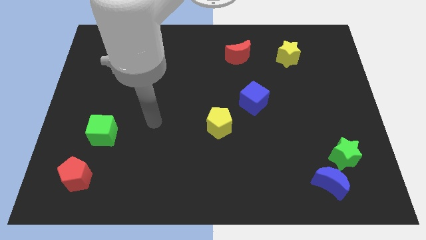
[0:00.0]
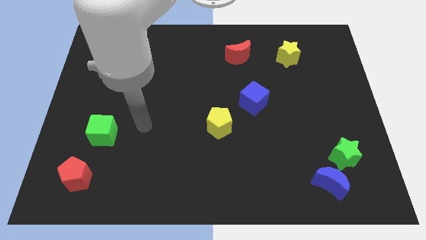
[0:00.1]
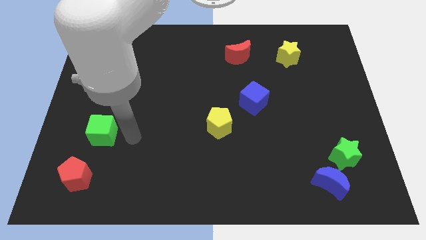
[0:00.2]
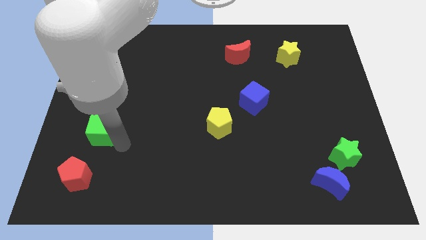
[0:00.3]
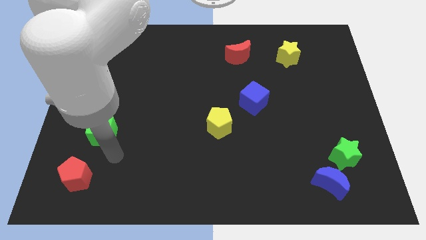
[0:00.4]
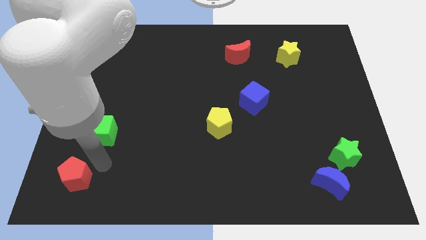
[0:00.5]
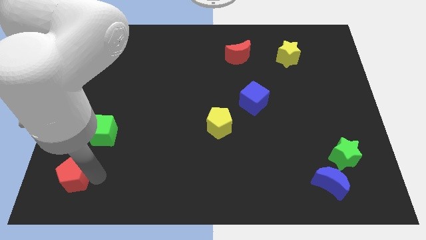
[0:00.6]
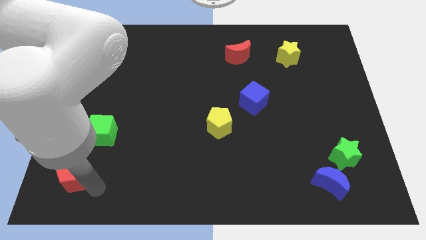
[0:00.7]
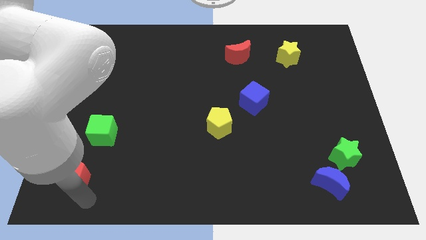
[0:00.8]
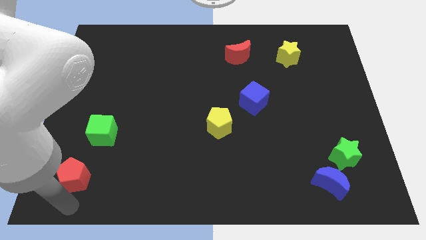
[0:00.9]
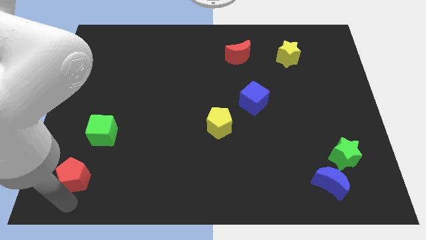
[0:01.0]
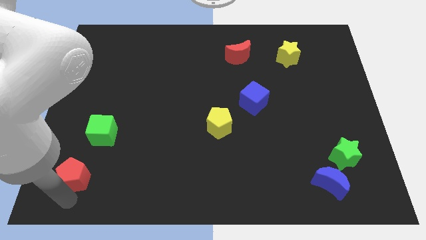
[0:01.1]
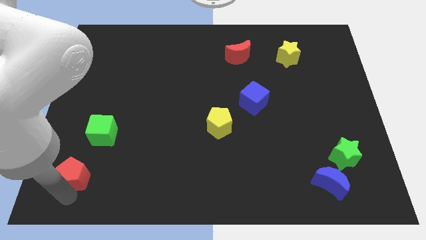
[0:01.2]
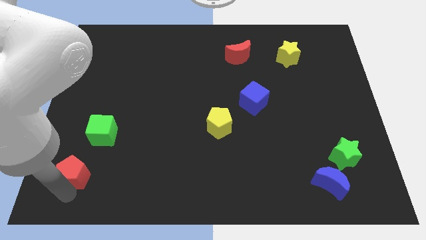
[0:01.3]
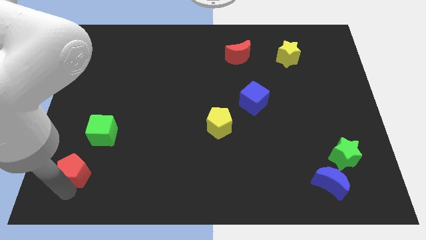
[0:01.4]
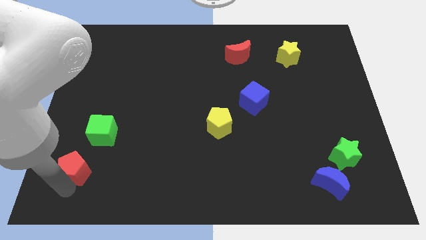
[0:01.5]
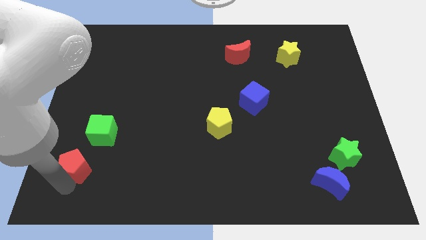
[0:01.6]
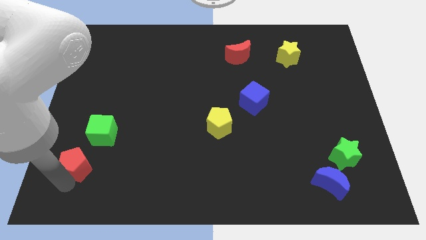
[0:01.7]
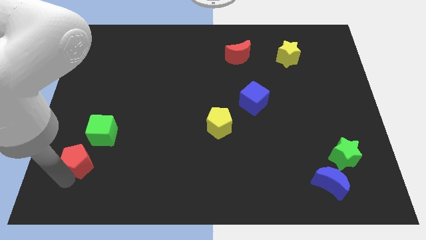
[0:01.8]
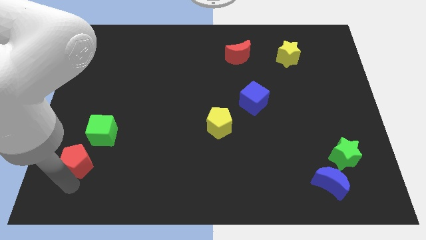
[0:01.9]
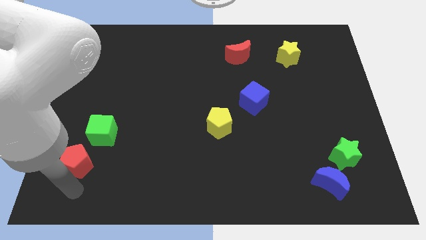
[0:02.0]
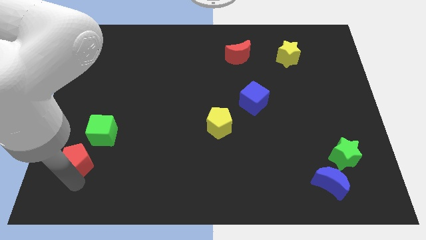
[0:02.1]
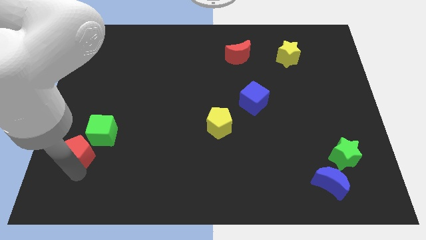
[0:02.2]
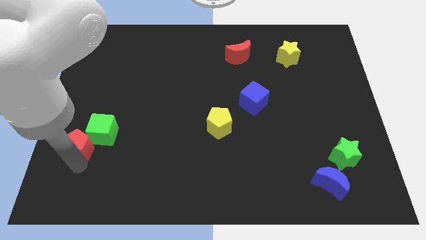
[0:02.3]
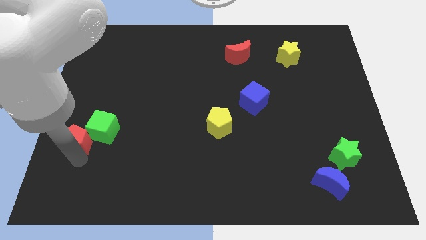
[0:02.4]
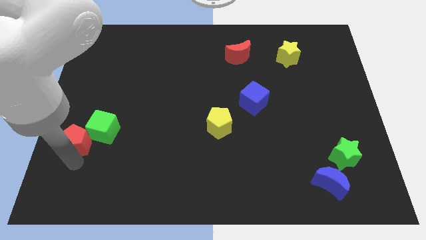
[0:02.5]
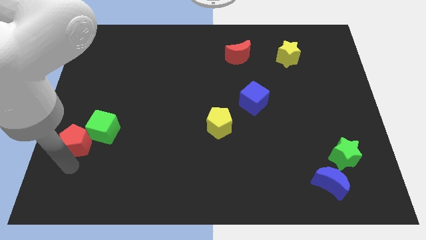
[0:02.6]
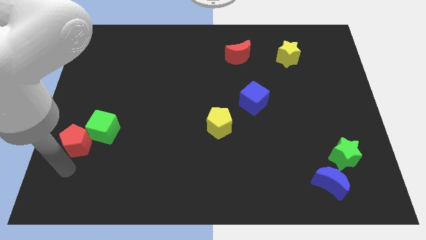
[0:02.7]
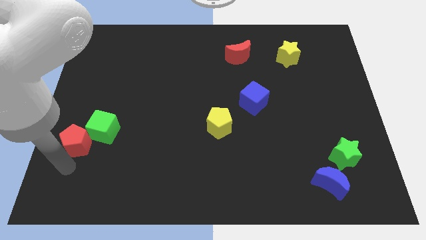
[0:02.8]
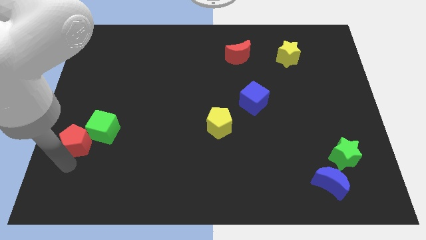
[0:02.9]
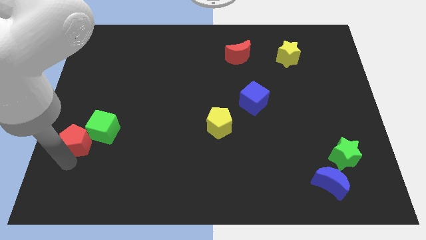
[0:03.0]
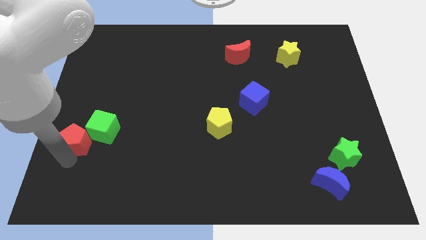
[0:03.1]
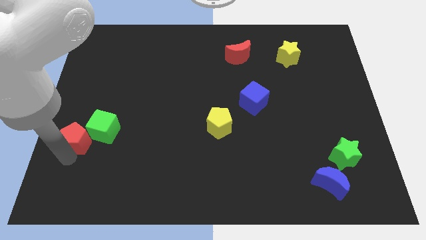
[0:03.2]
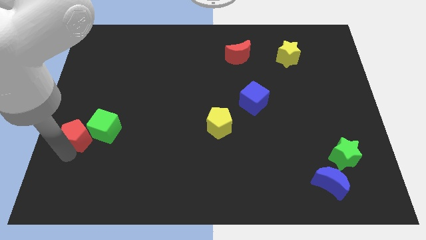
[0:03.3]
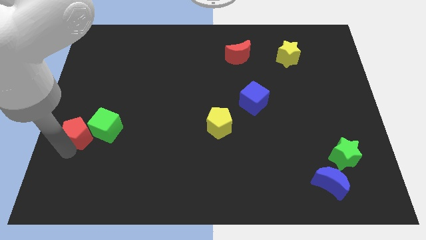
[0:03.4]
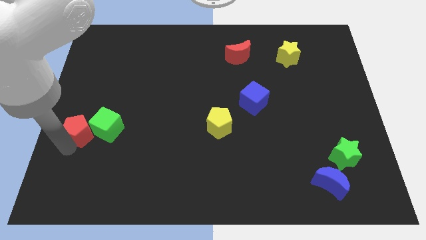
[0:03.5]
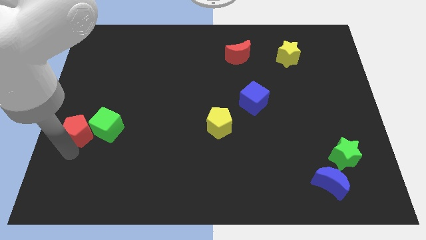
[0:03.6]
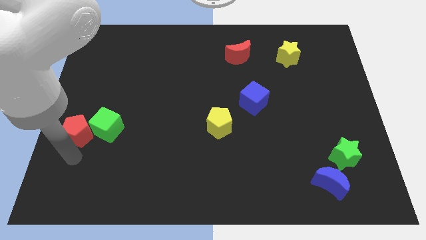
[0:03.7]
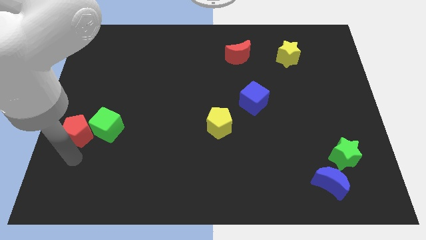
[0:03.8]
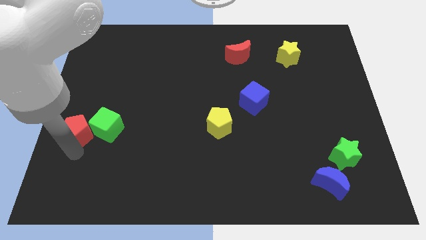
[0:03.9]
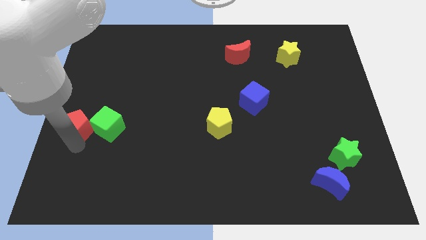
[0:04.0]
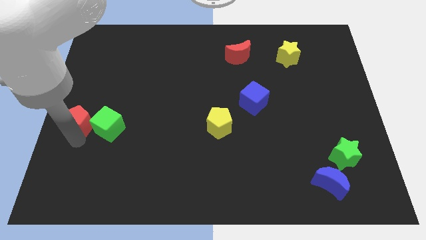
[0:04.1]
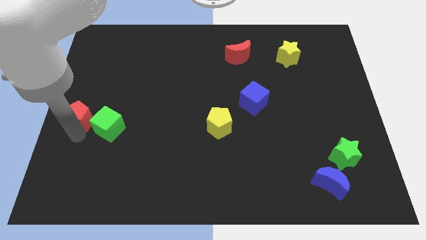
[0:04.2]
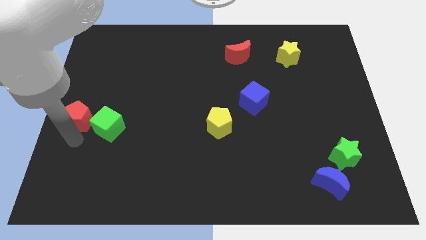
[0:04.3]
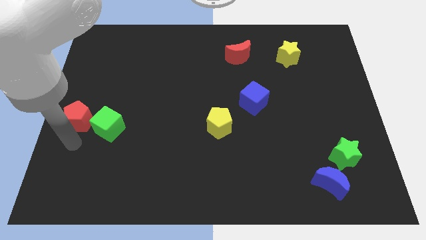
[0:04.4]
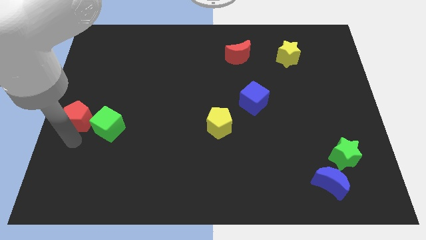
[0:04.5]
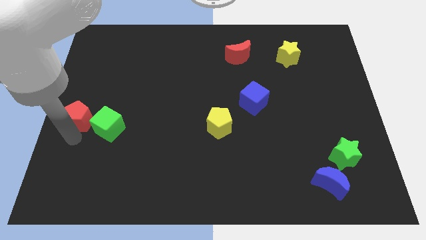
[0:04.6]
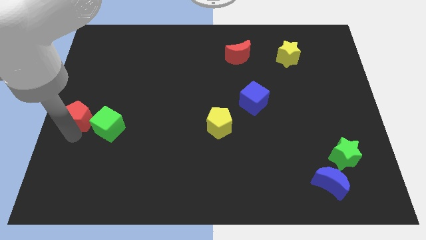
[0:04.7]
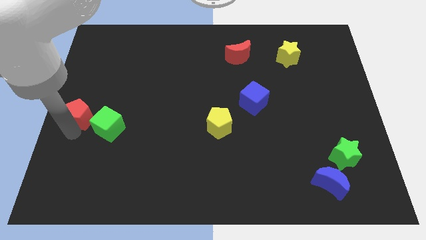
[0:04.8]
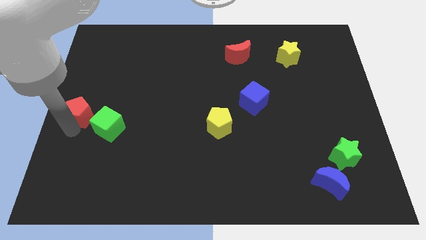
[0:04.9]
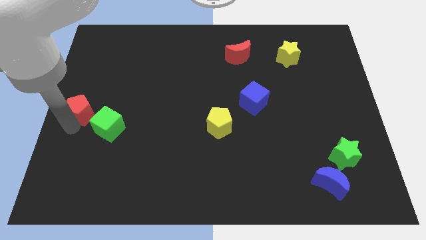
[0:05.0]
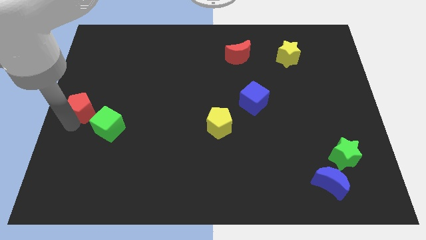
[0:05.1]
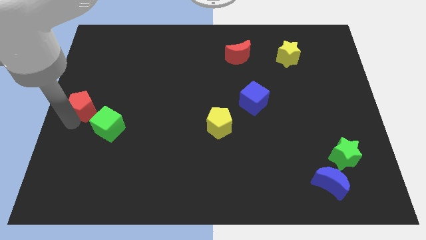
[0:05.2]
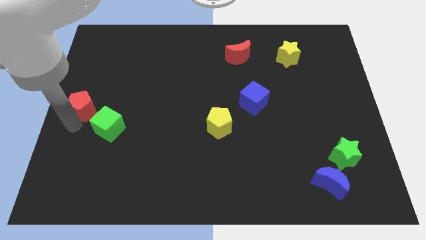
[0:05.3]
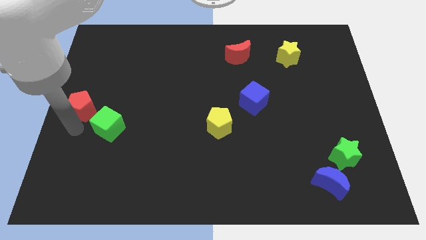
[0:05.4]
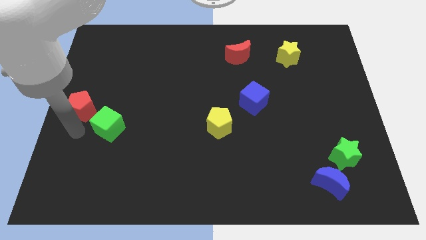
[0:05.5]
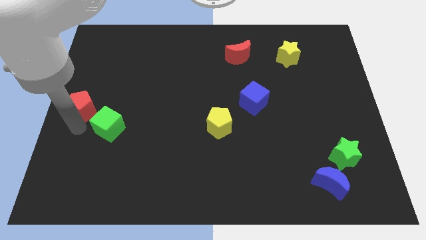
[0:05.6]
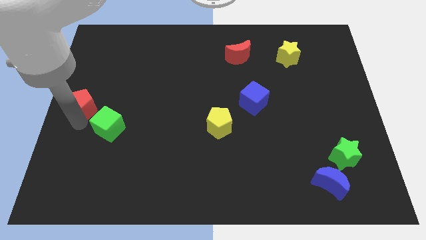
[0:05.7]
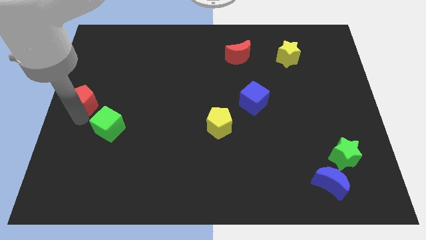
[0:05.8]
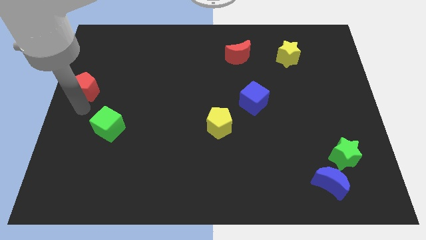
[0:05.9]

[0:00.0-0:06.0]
move the red pentagon upwards

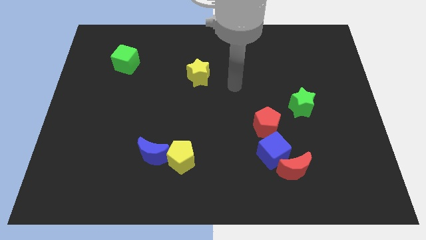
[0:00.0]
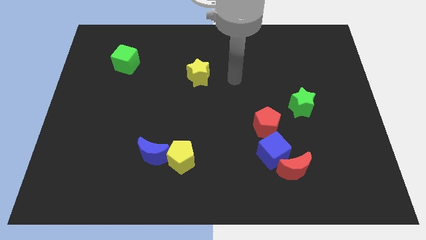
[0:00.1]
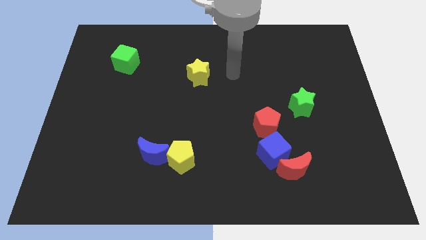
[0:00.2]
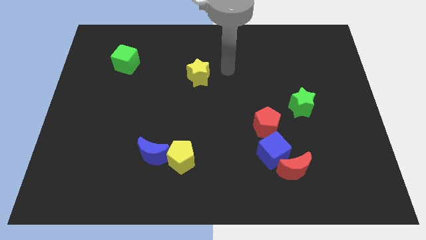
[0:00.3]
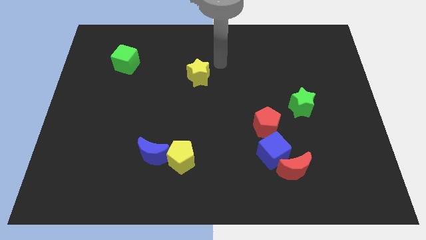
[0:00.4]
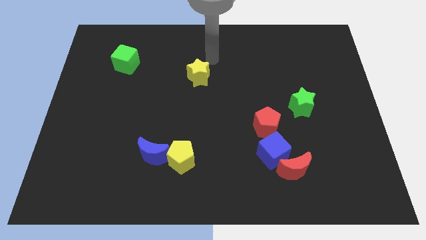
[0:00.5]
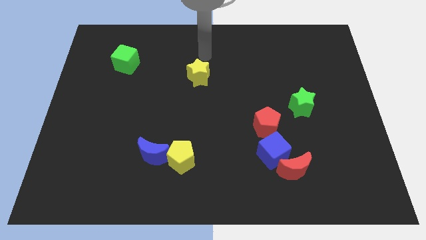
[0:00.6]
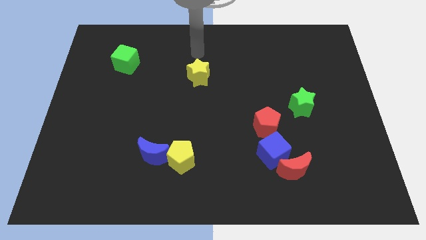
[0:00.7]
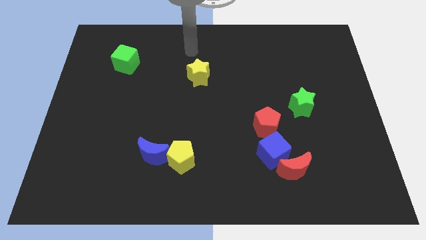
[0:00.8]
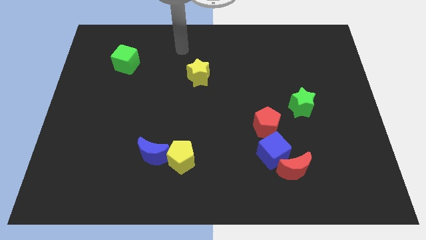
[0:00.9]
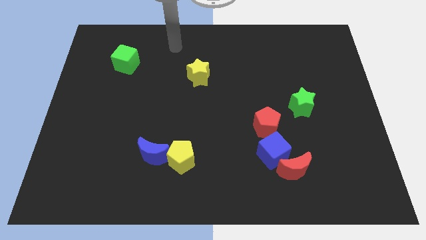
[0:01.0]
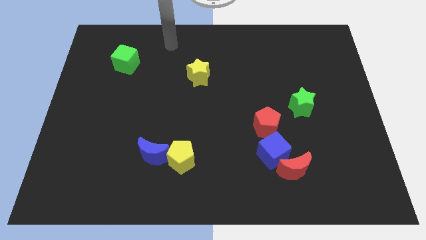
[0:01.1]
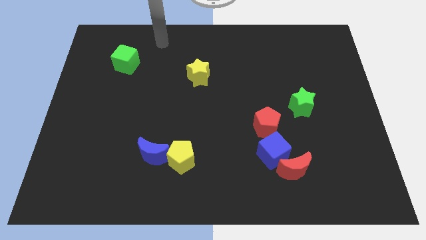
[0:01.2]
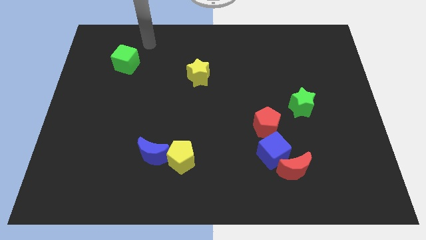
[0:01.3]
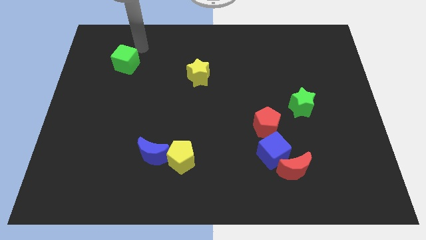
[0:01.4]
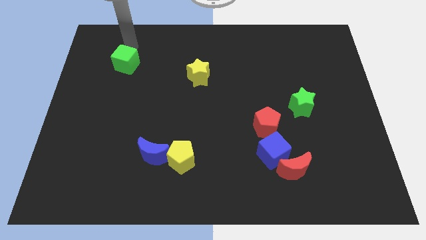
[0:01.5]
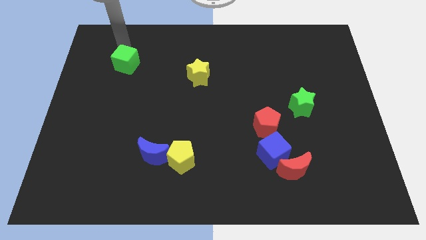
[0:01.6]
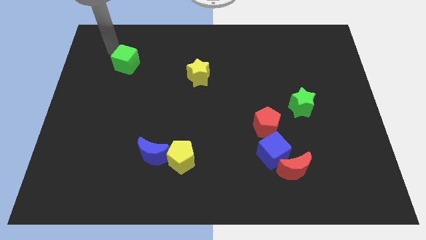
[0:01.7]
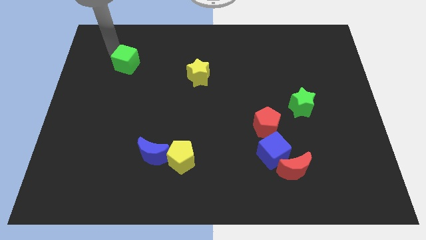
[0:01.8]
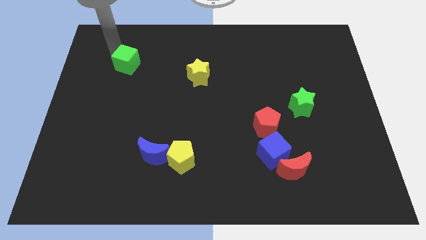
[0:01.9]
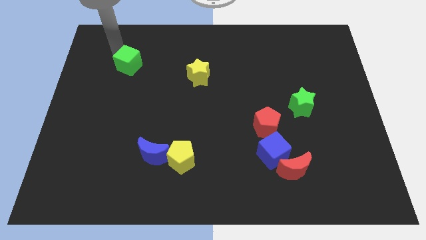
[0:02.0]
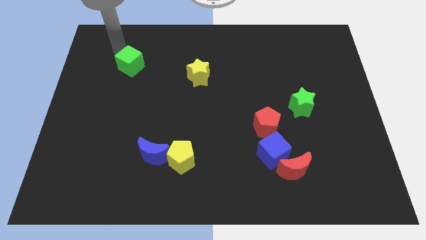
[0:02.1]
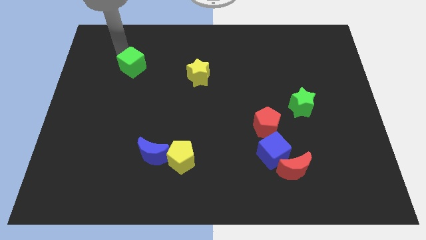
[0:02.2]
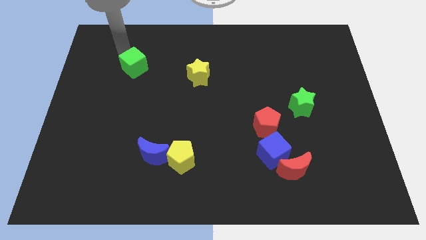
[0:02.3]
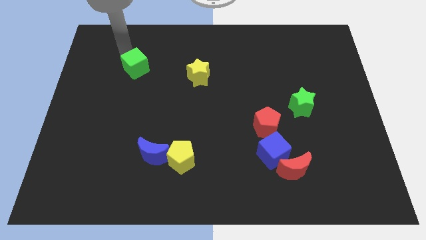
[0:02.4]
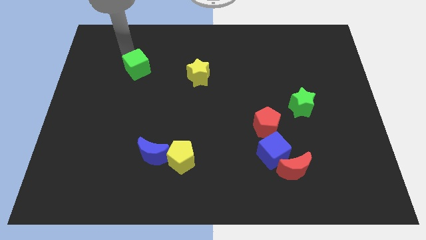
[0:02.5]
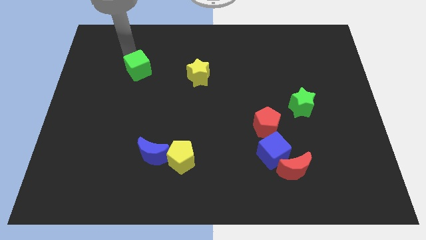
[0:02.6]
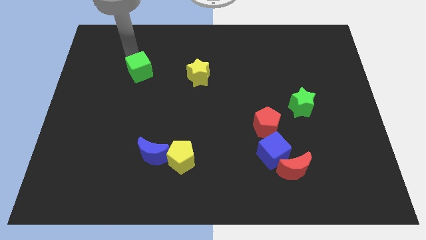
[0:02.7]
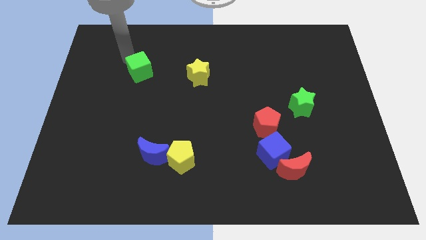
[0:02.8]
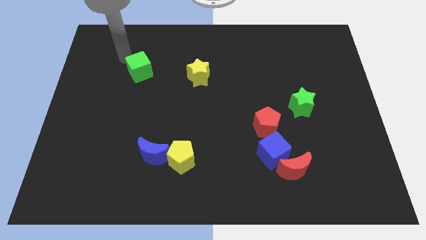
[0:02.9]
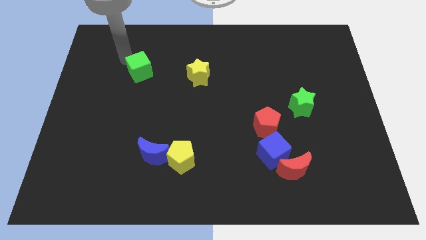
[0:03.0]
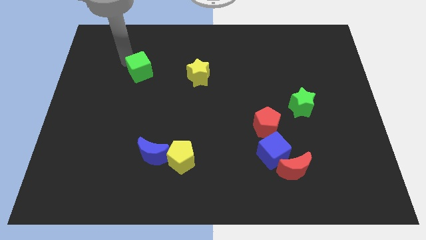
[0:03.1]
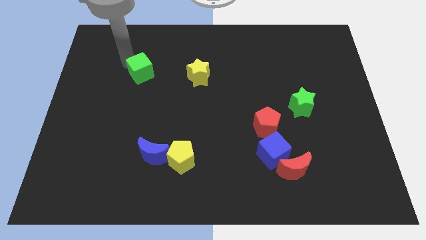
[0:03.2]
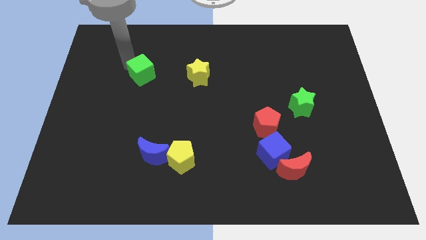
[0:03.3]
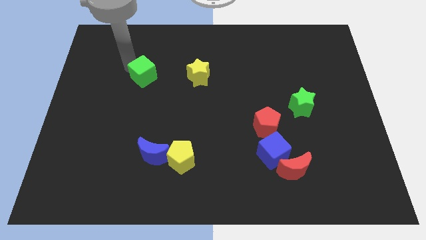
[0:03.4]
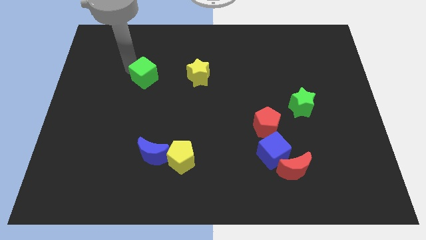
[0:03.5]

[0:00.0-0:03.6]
slightly push the green cube downwards and then right
